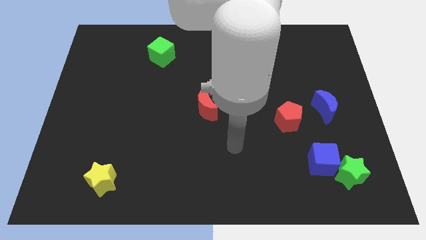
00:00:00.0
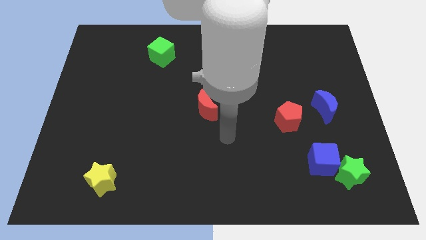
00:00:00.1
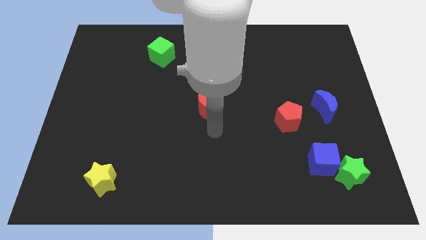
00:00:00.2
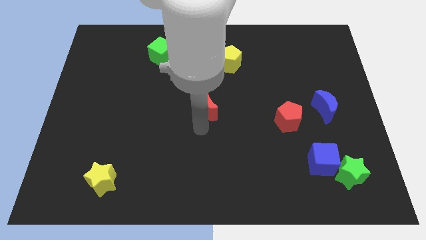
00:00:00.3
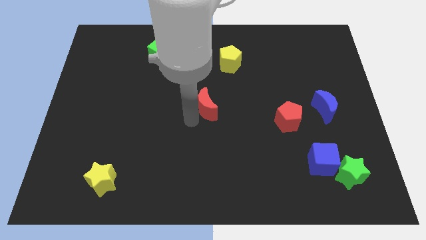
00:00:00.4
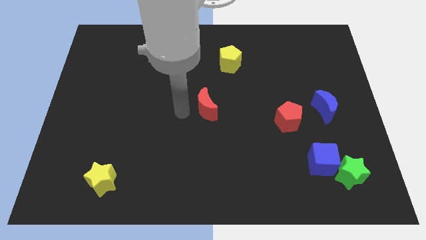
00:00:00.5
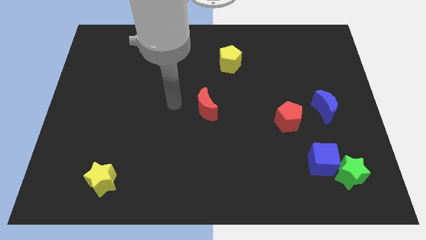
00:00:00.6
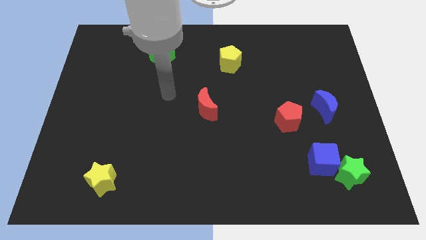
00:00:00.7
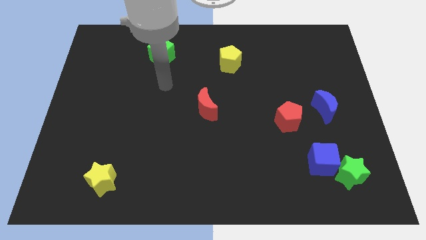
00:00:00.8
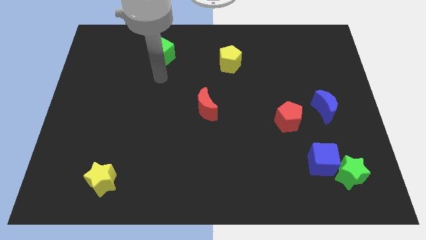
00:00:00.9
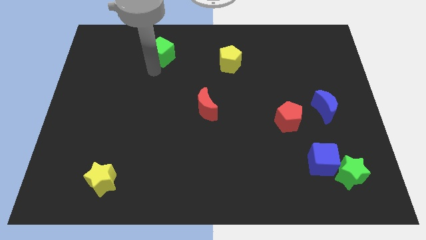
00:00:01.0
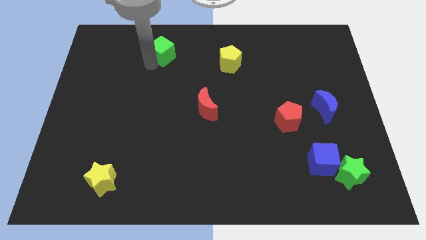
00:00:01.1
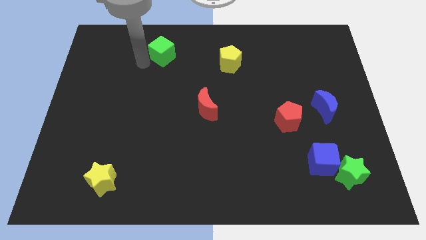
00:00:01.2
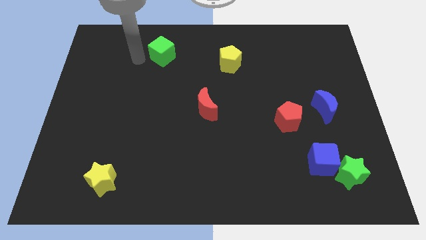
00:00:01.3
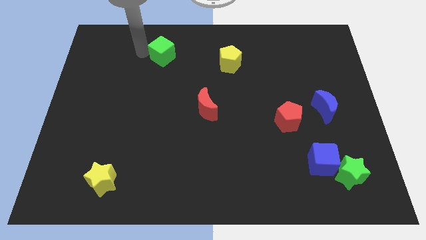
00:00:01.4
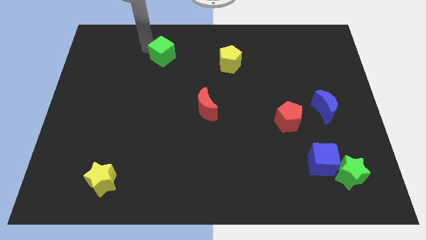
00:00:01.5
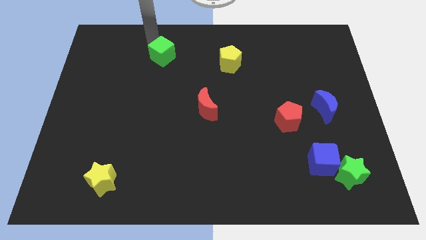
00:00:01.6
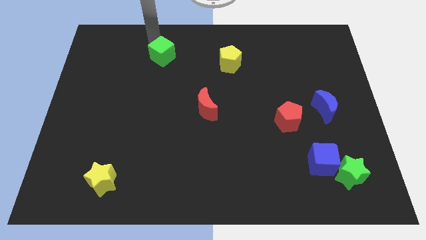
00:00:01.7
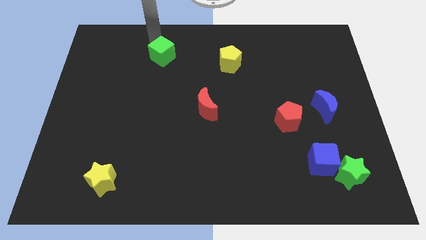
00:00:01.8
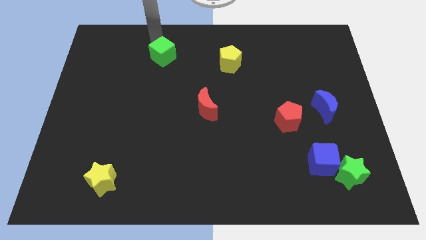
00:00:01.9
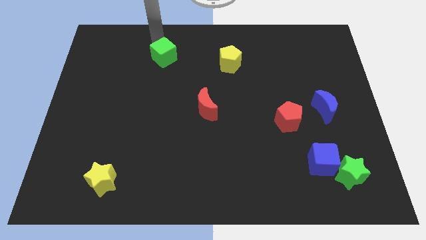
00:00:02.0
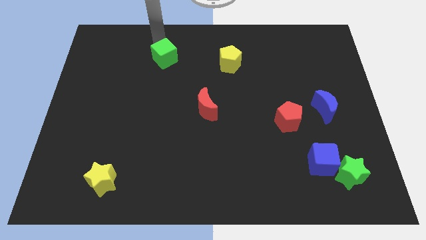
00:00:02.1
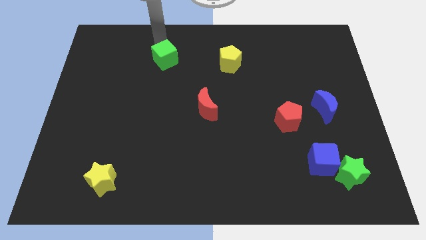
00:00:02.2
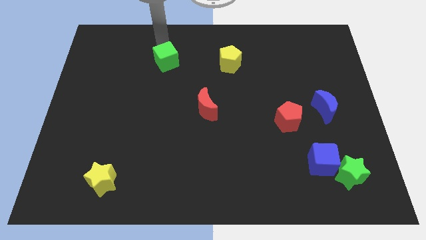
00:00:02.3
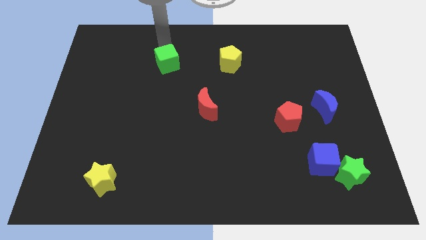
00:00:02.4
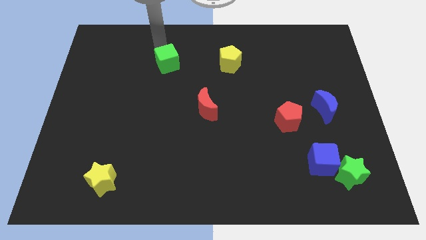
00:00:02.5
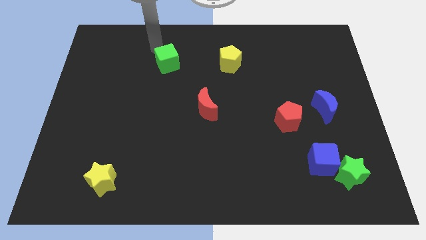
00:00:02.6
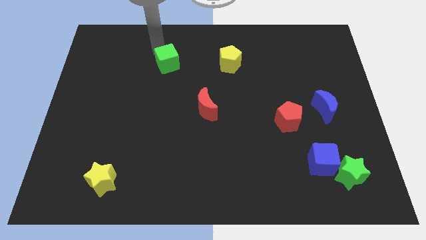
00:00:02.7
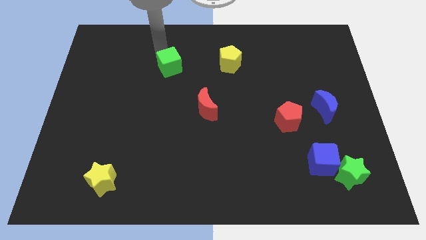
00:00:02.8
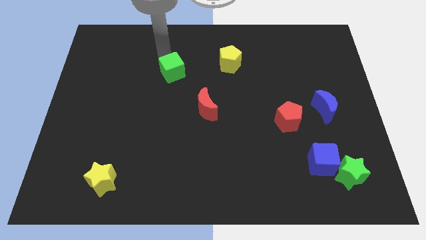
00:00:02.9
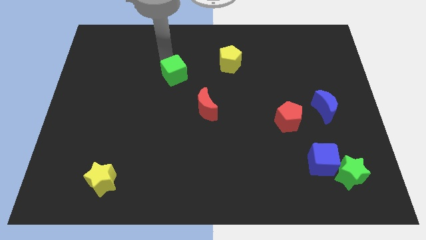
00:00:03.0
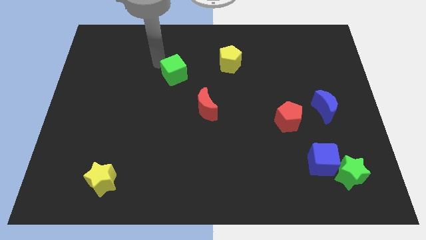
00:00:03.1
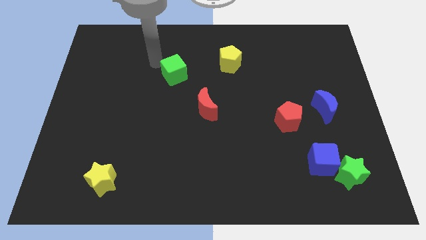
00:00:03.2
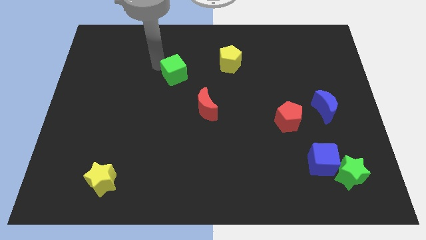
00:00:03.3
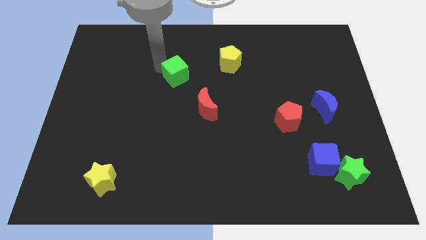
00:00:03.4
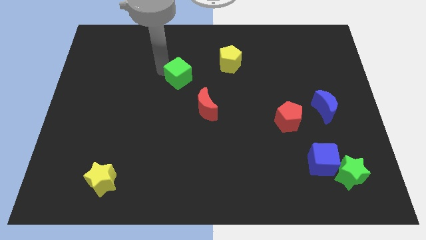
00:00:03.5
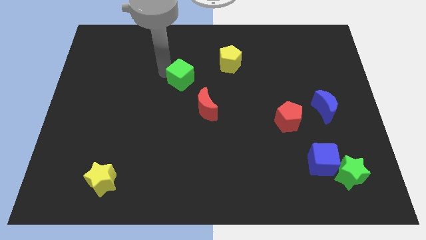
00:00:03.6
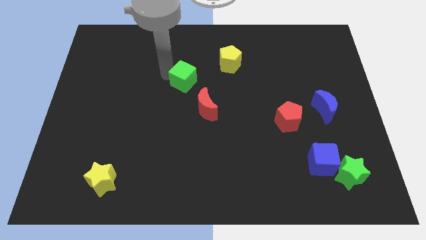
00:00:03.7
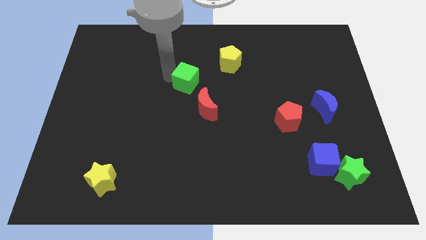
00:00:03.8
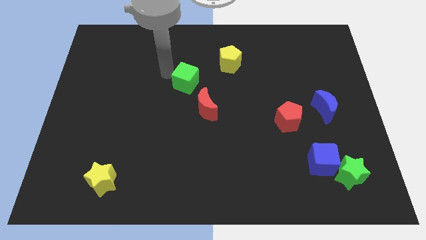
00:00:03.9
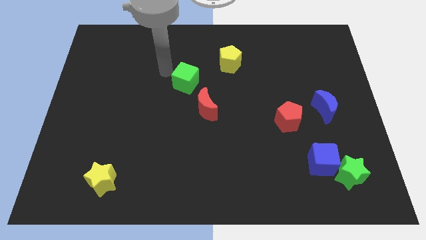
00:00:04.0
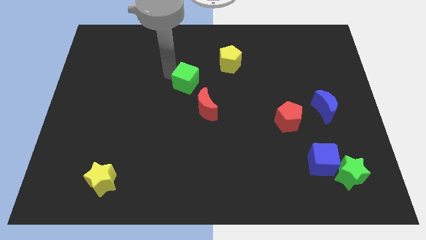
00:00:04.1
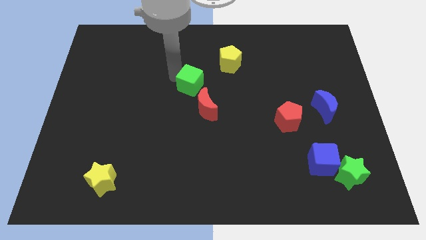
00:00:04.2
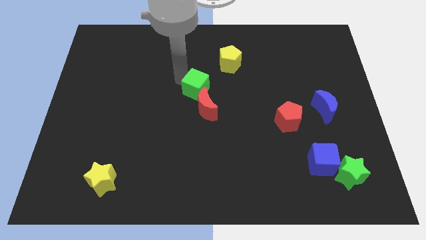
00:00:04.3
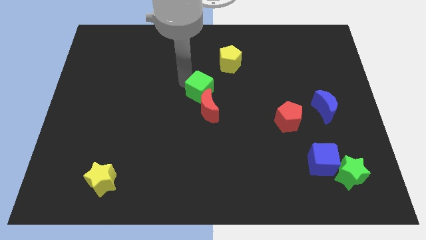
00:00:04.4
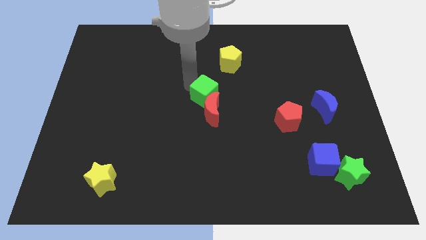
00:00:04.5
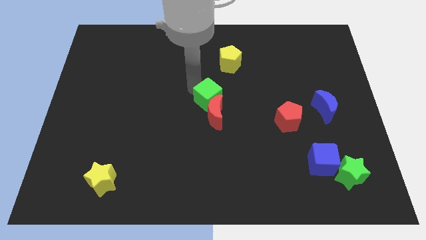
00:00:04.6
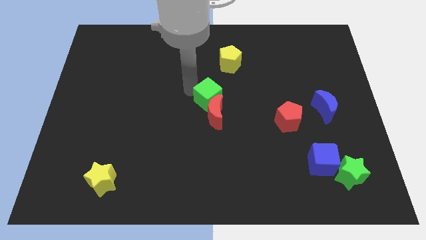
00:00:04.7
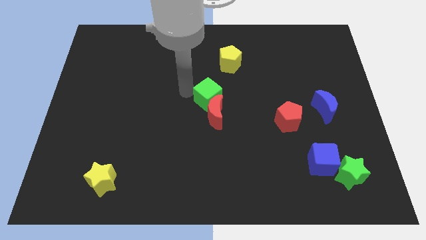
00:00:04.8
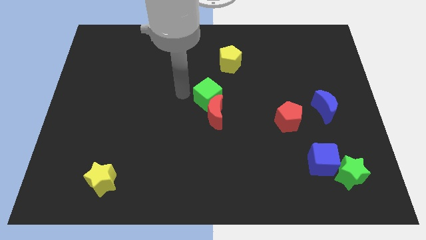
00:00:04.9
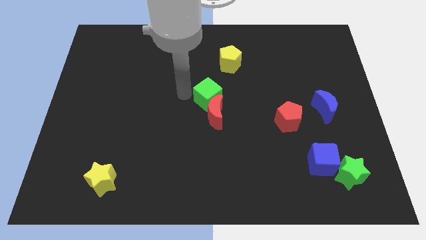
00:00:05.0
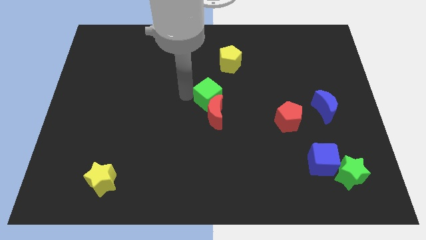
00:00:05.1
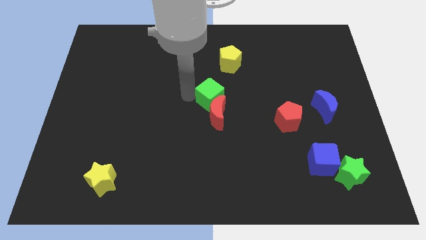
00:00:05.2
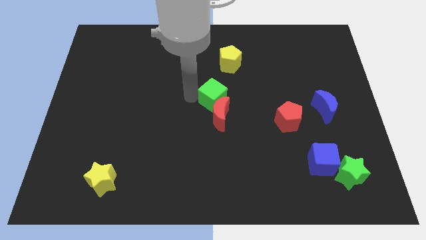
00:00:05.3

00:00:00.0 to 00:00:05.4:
move the green cube downwards and right diagonally

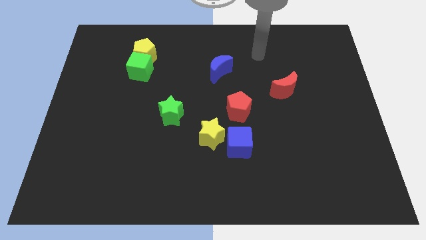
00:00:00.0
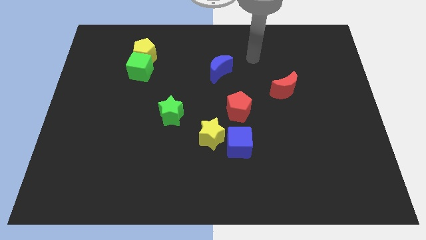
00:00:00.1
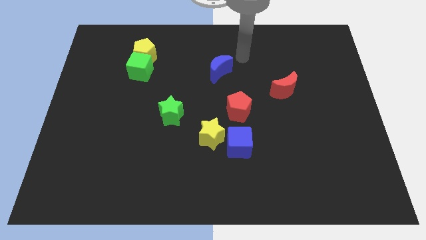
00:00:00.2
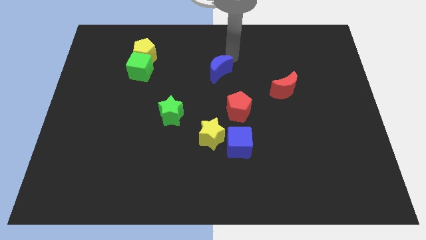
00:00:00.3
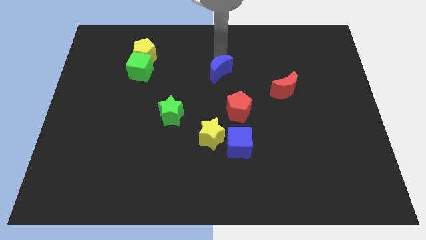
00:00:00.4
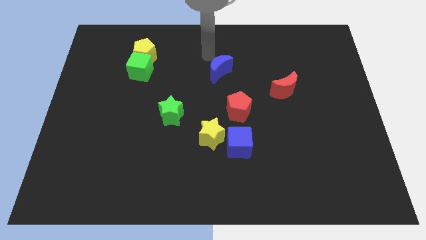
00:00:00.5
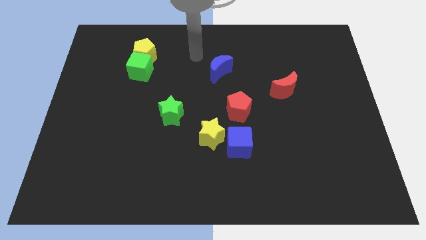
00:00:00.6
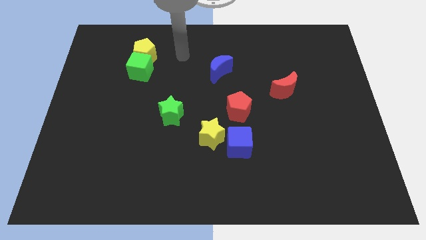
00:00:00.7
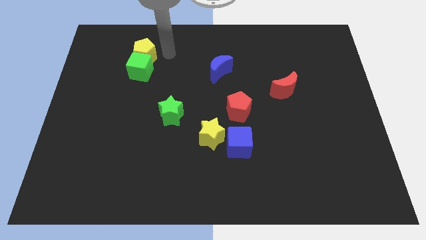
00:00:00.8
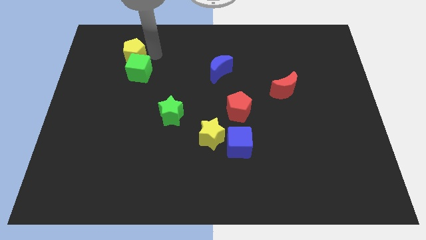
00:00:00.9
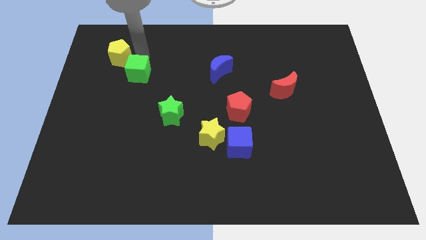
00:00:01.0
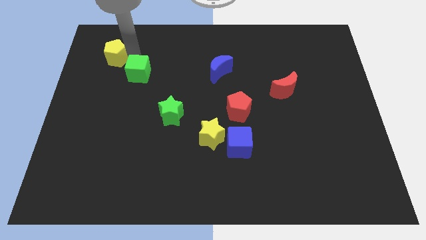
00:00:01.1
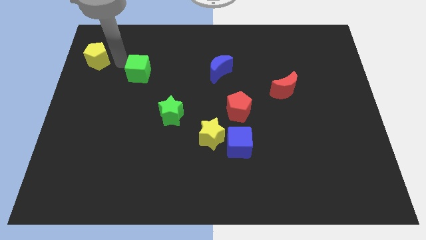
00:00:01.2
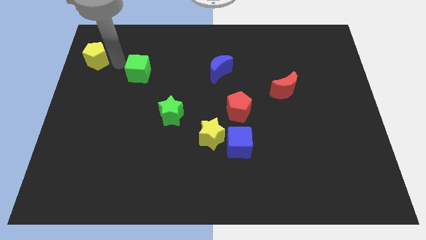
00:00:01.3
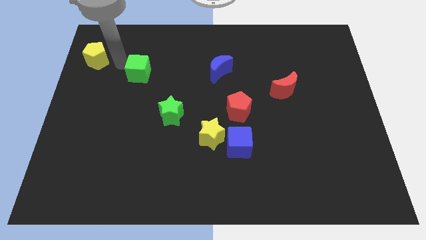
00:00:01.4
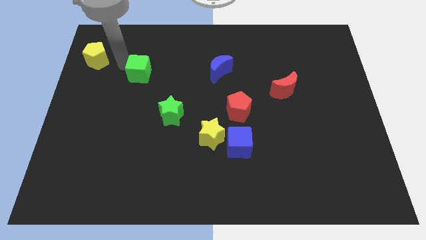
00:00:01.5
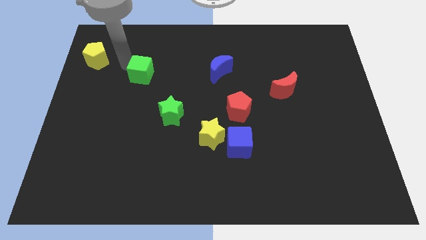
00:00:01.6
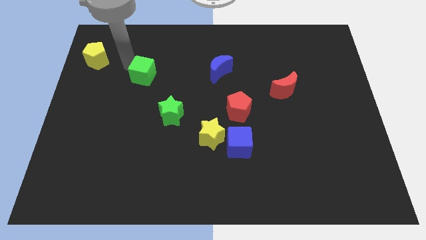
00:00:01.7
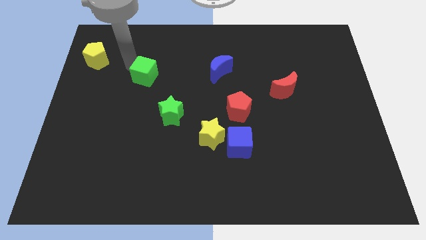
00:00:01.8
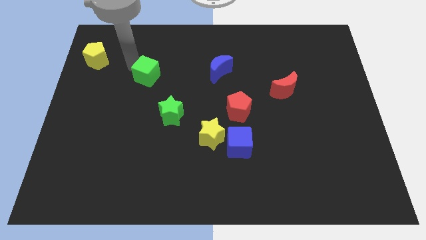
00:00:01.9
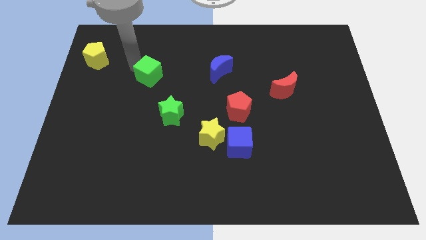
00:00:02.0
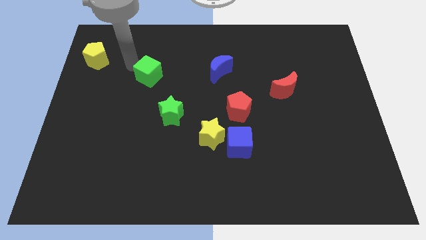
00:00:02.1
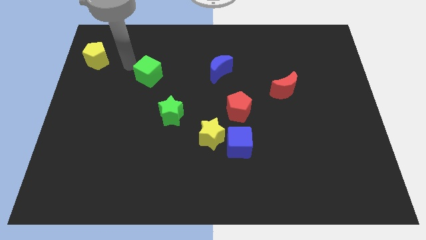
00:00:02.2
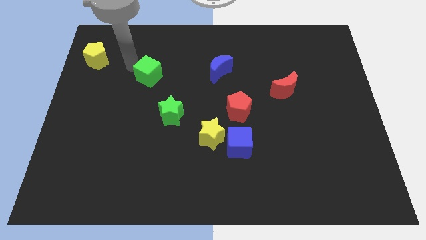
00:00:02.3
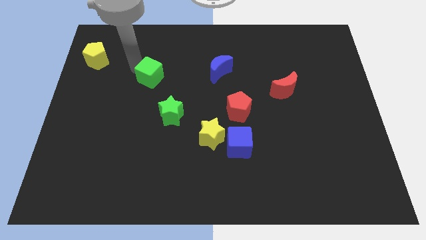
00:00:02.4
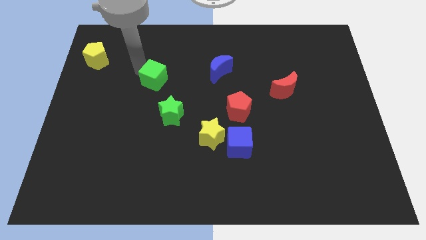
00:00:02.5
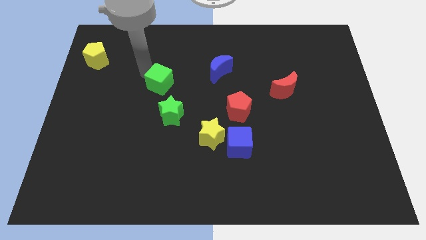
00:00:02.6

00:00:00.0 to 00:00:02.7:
slide the green cube downwards and to the right somewhat
